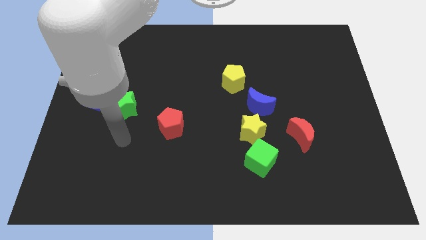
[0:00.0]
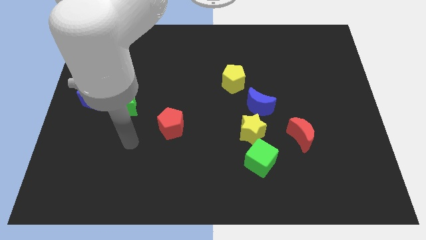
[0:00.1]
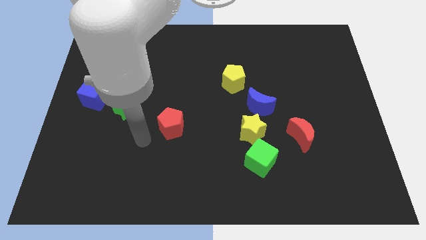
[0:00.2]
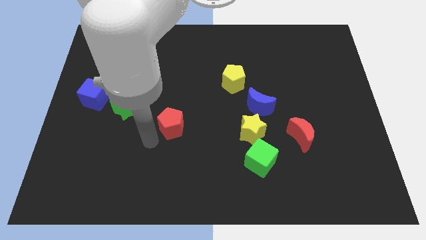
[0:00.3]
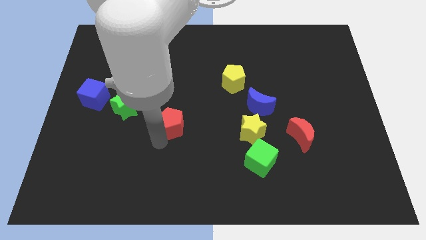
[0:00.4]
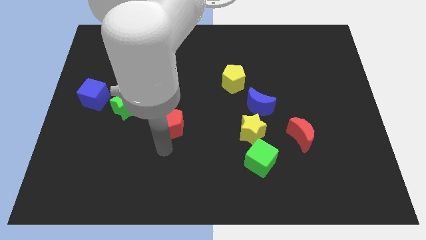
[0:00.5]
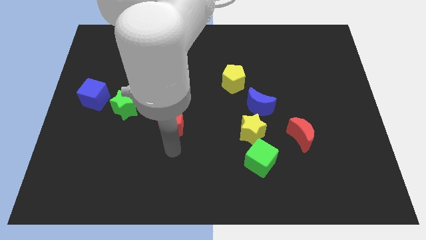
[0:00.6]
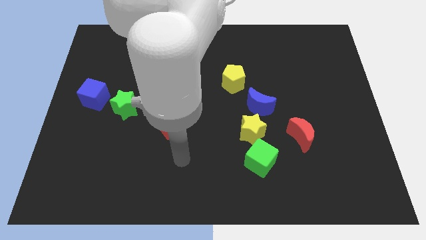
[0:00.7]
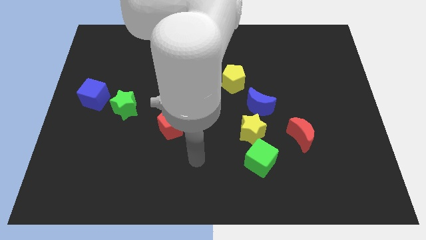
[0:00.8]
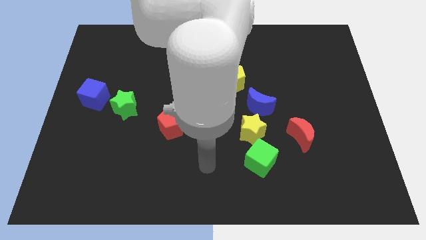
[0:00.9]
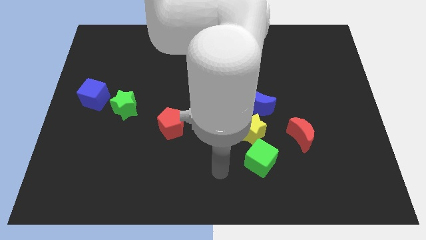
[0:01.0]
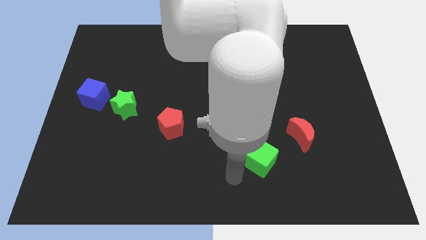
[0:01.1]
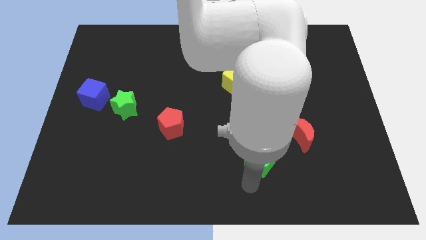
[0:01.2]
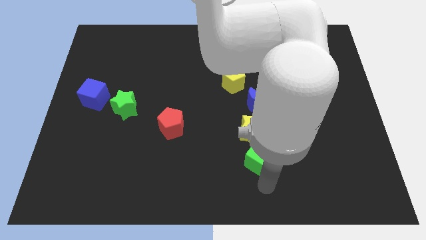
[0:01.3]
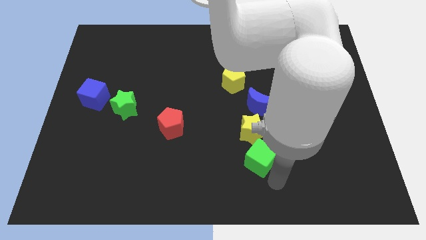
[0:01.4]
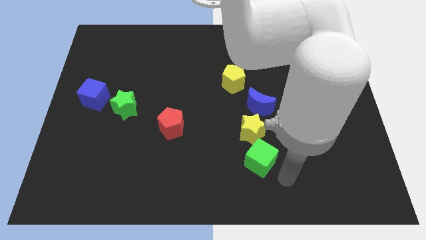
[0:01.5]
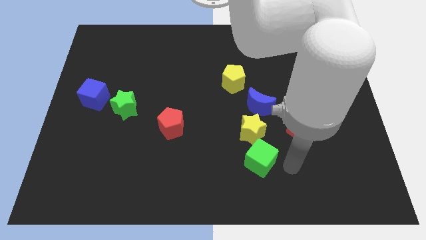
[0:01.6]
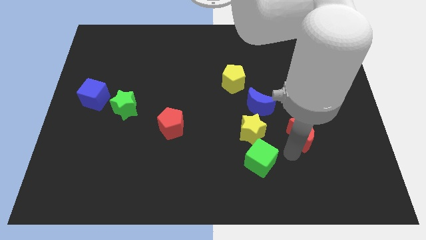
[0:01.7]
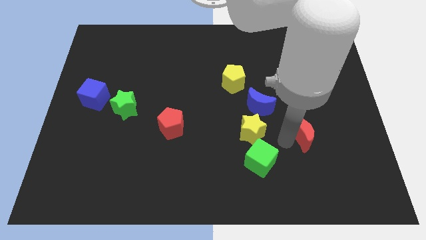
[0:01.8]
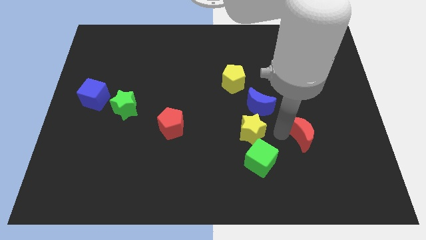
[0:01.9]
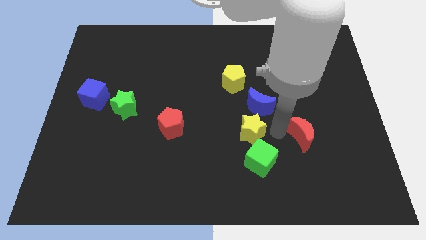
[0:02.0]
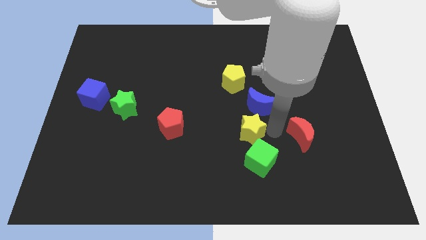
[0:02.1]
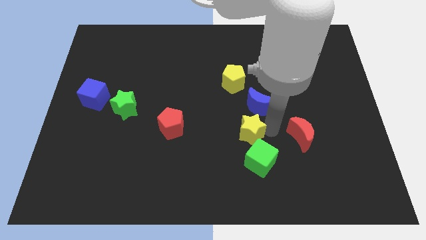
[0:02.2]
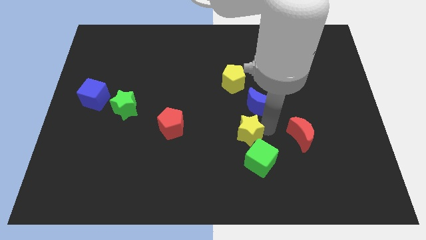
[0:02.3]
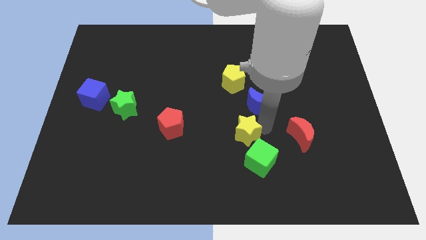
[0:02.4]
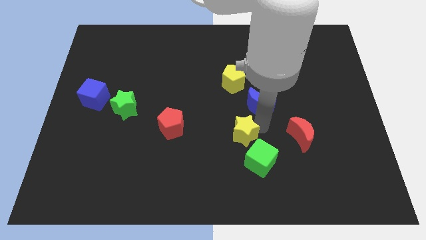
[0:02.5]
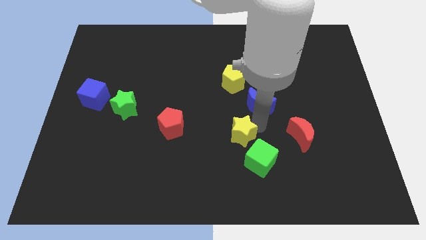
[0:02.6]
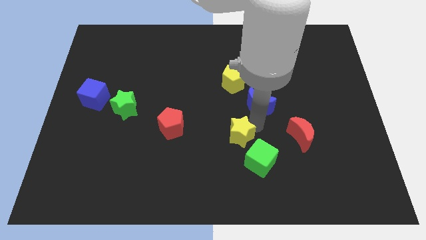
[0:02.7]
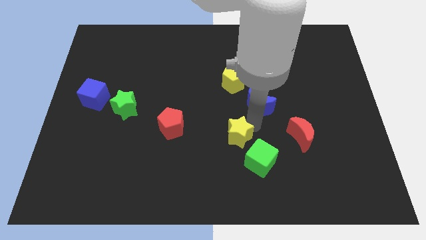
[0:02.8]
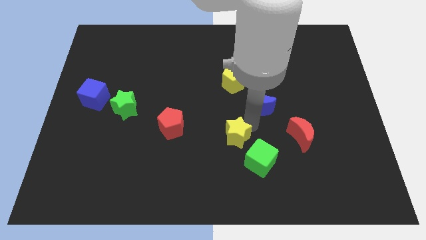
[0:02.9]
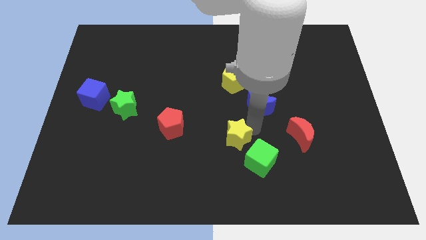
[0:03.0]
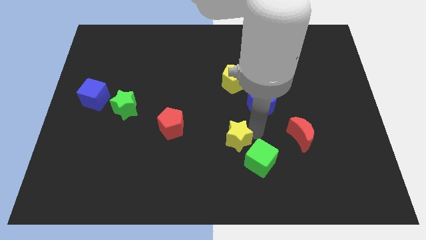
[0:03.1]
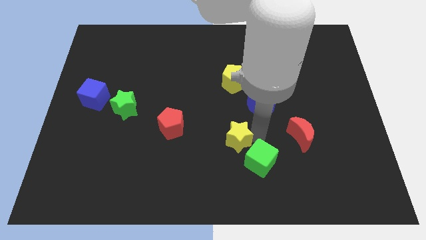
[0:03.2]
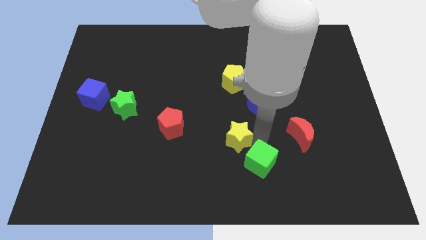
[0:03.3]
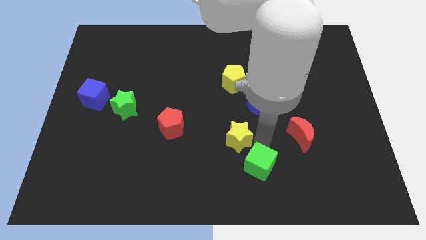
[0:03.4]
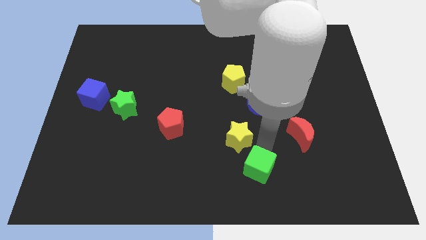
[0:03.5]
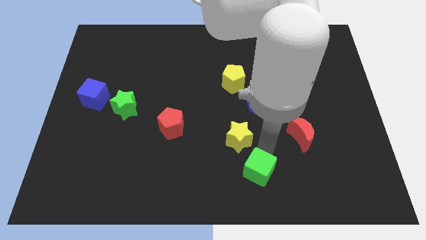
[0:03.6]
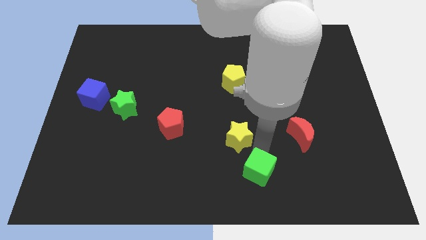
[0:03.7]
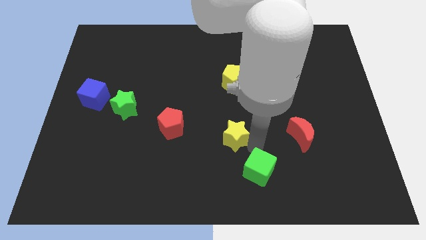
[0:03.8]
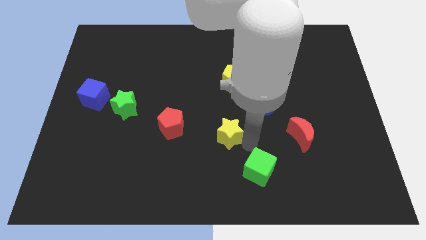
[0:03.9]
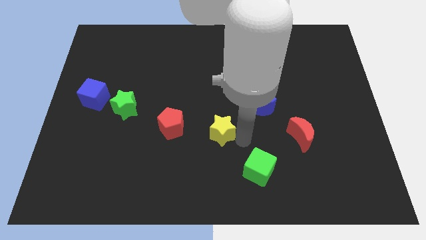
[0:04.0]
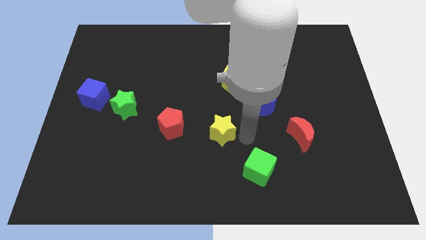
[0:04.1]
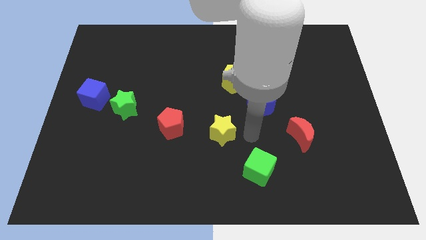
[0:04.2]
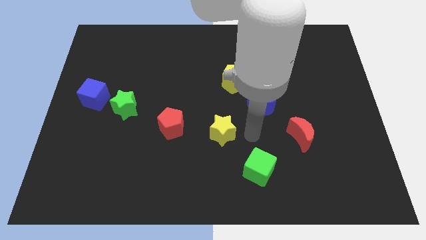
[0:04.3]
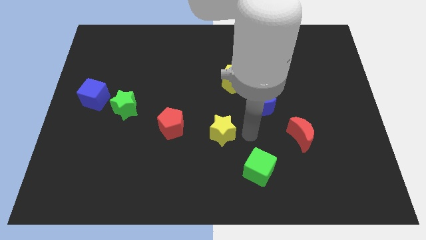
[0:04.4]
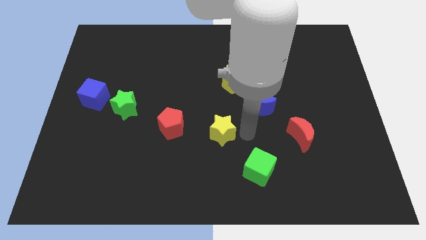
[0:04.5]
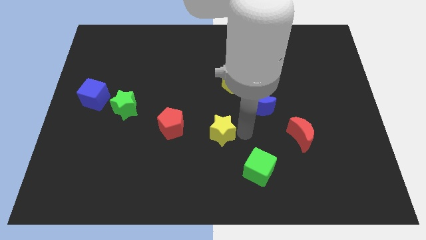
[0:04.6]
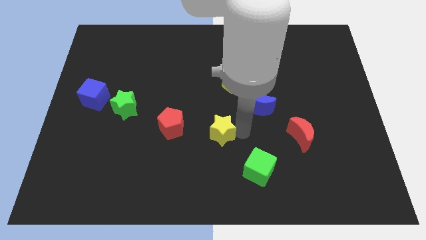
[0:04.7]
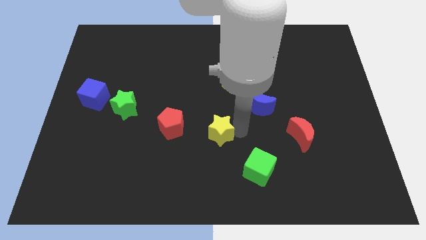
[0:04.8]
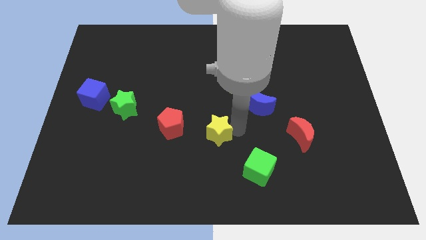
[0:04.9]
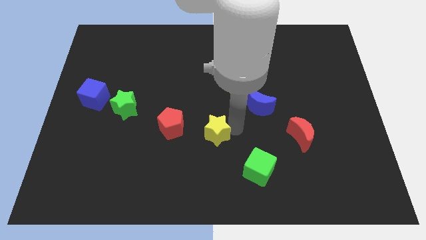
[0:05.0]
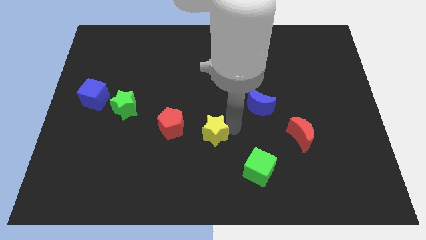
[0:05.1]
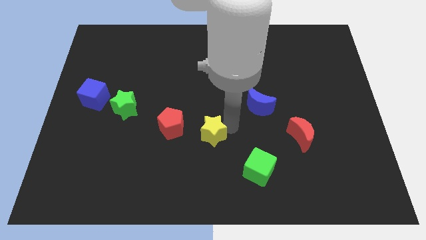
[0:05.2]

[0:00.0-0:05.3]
pull the yellow star apart from the blue moon and green cube

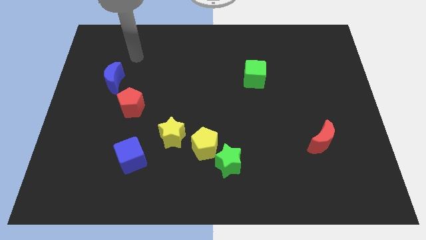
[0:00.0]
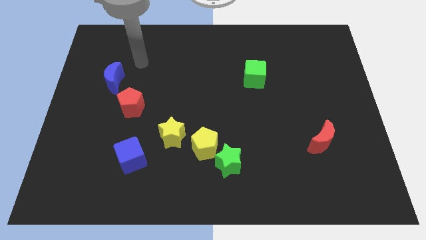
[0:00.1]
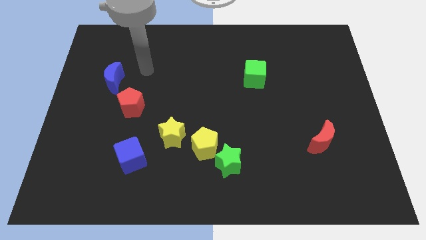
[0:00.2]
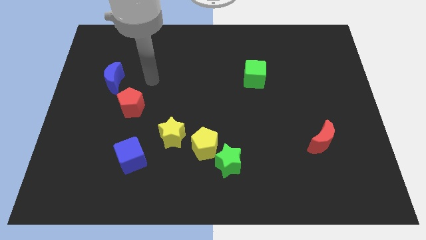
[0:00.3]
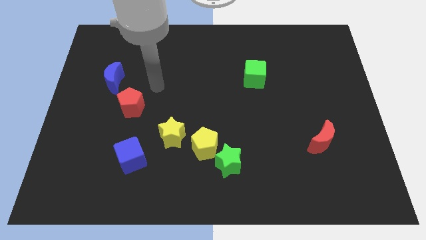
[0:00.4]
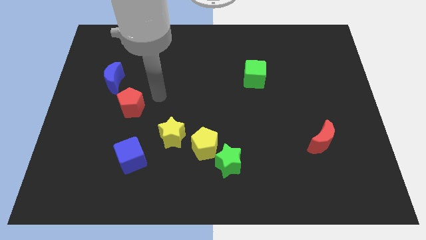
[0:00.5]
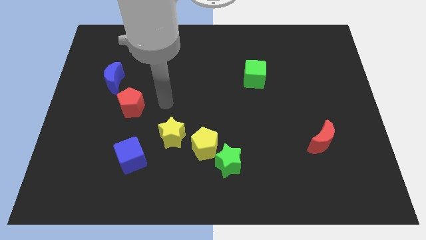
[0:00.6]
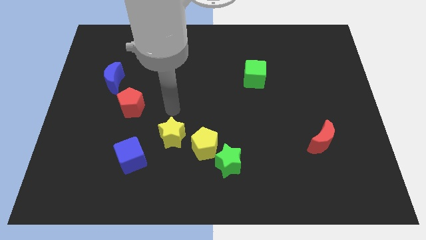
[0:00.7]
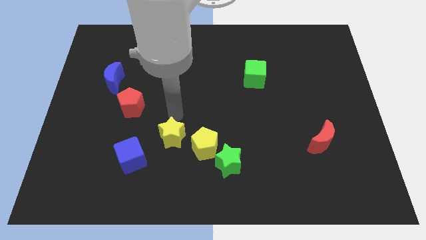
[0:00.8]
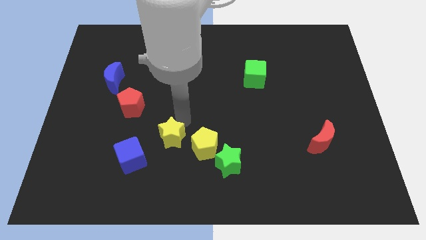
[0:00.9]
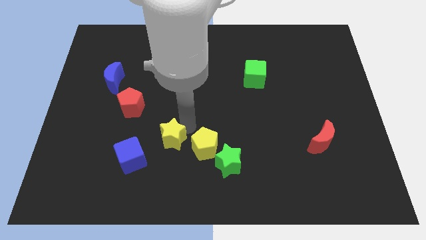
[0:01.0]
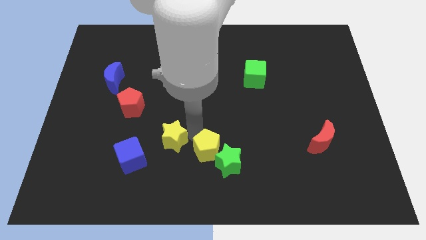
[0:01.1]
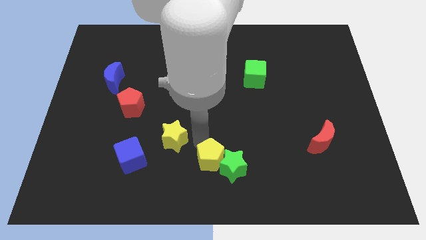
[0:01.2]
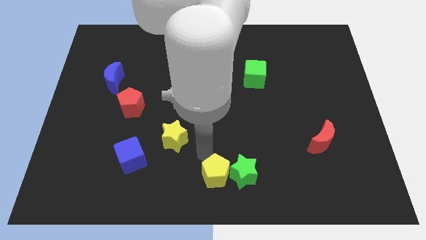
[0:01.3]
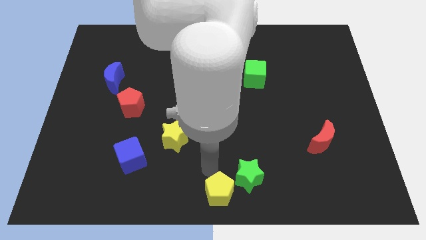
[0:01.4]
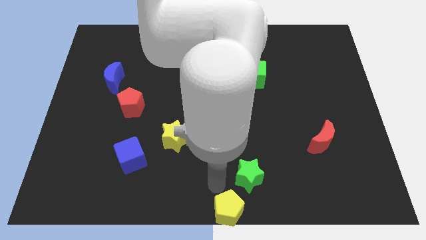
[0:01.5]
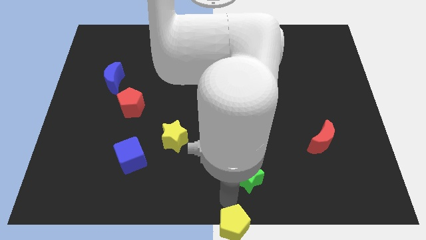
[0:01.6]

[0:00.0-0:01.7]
pull the green star apart from the yellow pentagon

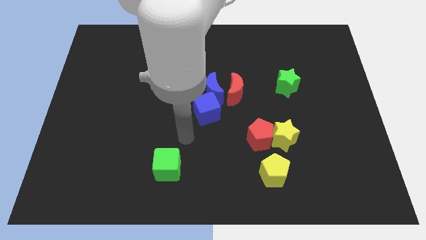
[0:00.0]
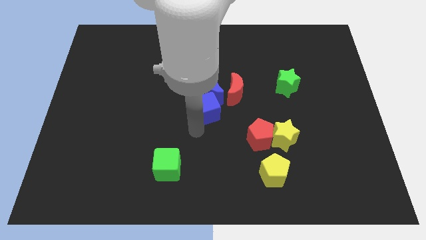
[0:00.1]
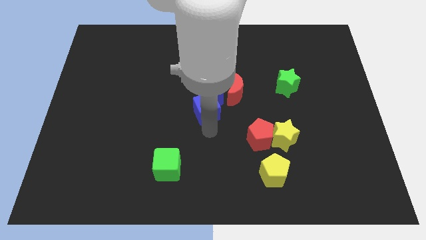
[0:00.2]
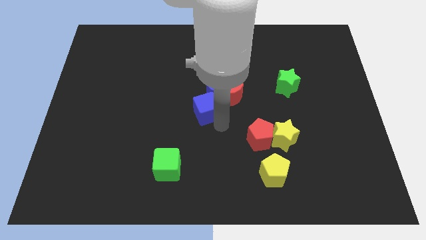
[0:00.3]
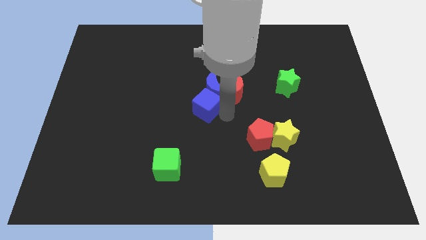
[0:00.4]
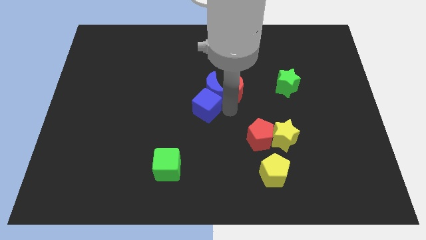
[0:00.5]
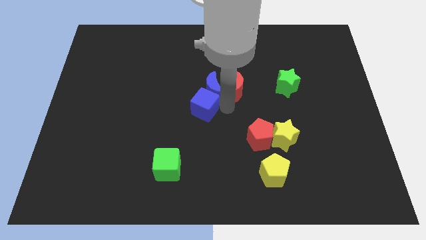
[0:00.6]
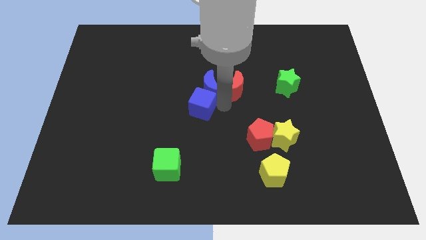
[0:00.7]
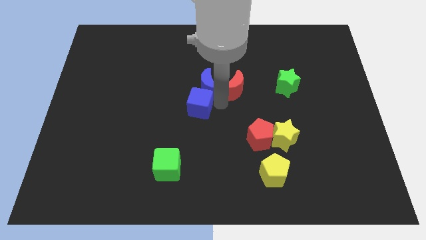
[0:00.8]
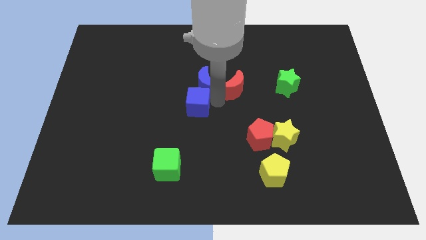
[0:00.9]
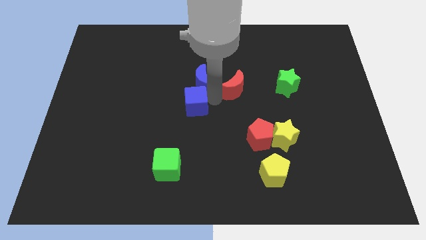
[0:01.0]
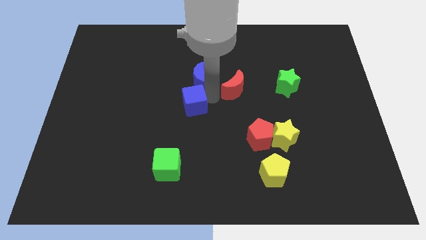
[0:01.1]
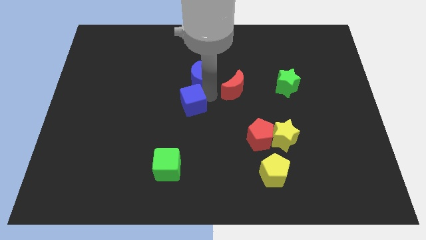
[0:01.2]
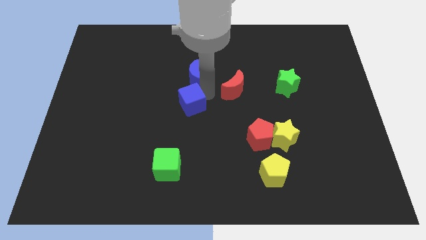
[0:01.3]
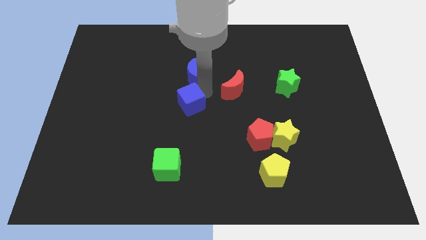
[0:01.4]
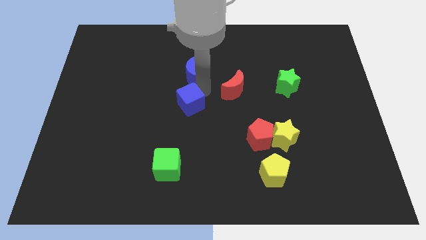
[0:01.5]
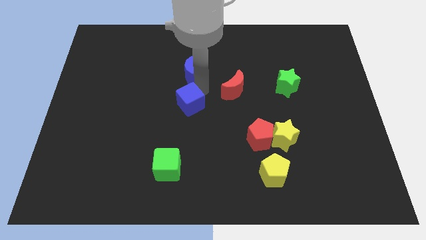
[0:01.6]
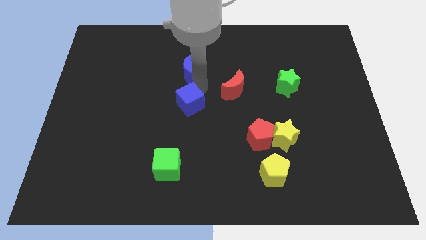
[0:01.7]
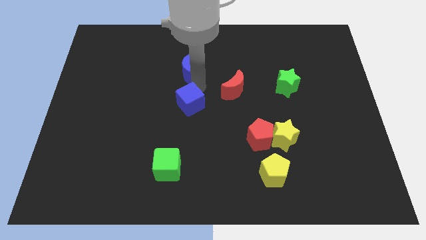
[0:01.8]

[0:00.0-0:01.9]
separate the blue moon from the red moon and blue cube

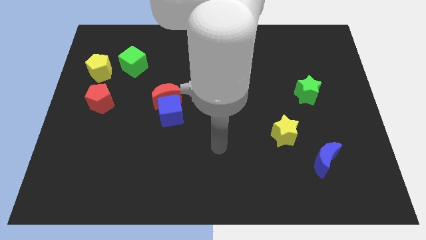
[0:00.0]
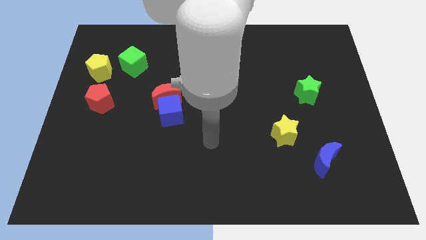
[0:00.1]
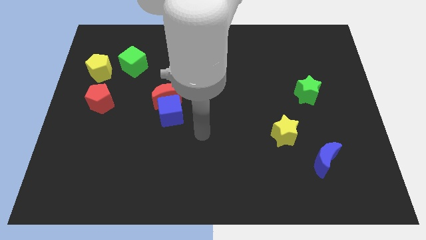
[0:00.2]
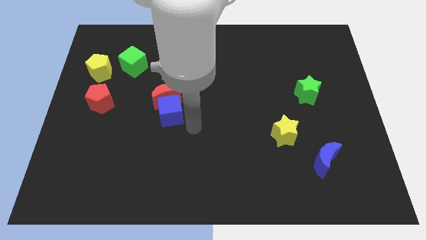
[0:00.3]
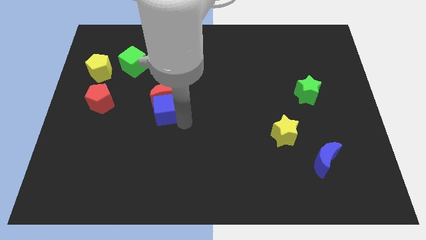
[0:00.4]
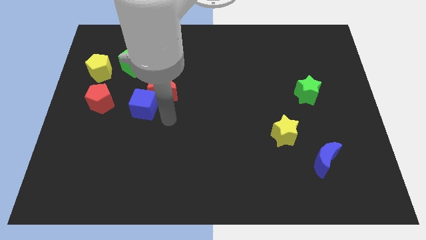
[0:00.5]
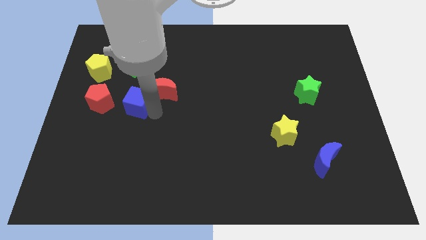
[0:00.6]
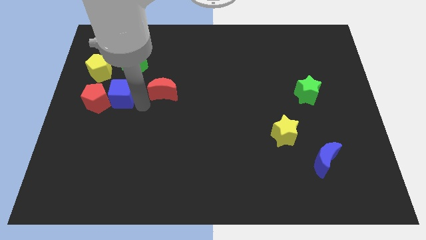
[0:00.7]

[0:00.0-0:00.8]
pull the red moon apart from the blue cube
